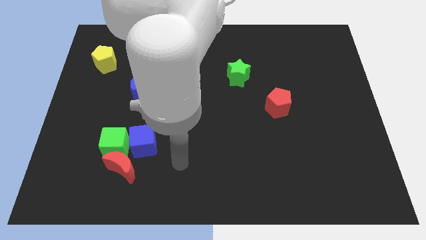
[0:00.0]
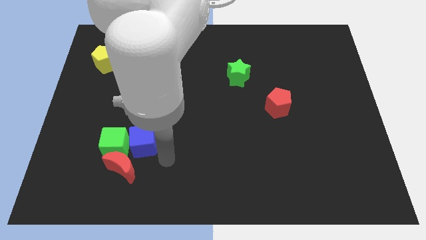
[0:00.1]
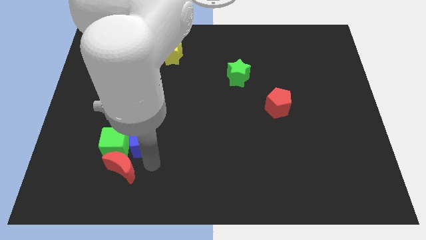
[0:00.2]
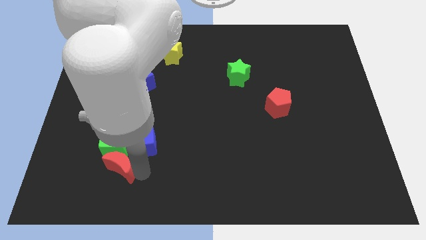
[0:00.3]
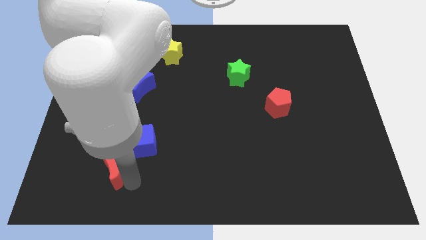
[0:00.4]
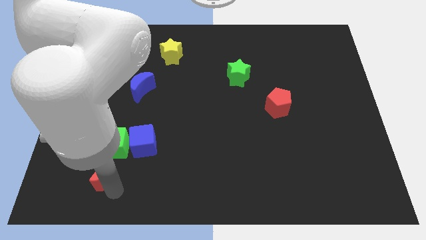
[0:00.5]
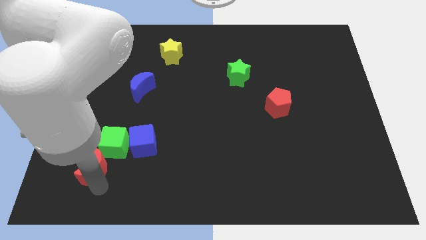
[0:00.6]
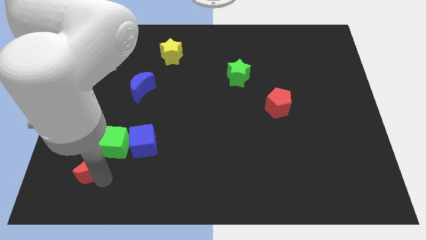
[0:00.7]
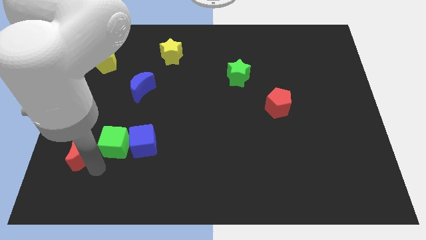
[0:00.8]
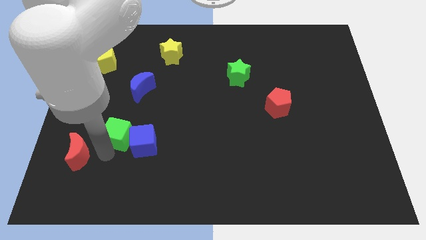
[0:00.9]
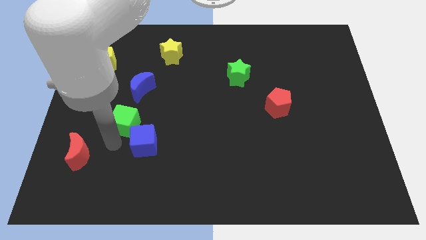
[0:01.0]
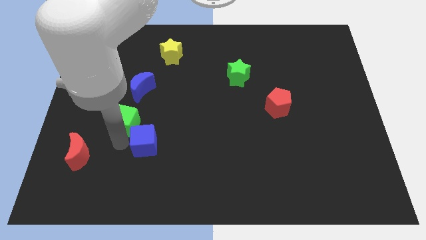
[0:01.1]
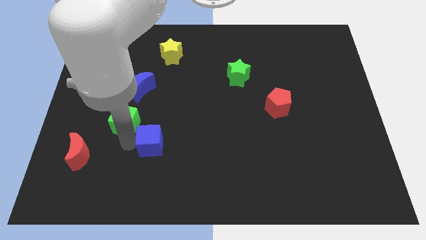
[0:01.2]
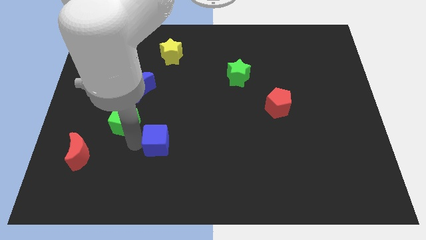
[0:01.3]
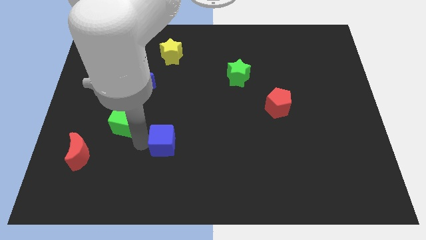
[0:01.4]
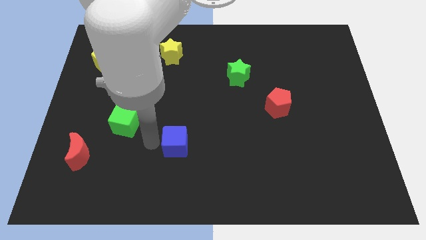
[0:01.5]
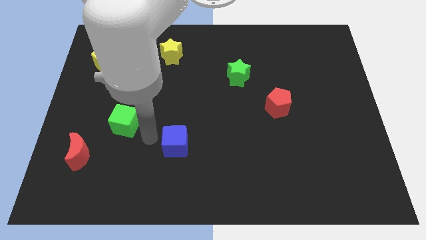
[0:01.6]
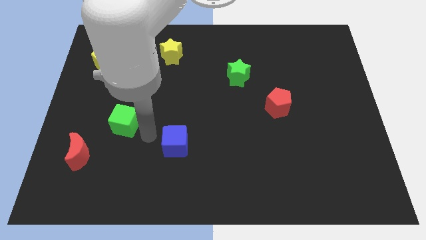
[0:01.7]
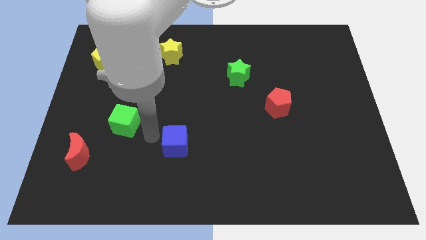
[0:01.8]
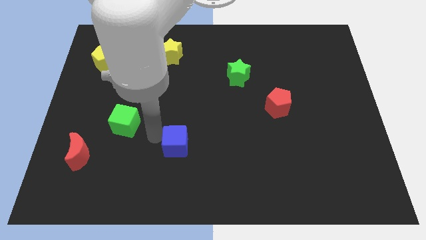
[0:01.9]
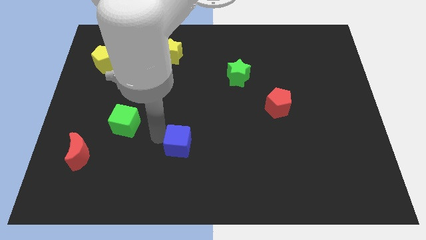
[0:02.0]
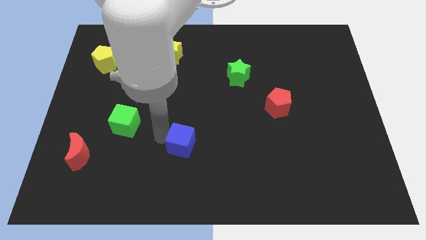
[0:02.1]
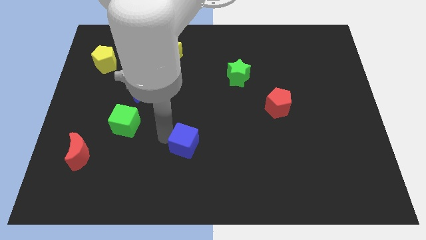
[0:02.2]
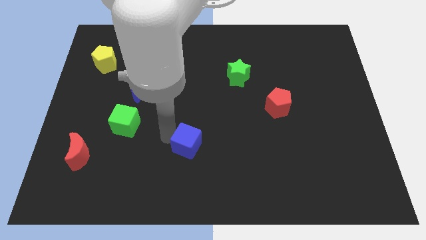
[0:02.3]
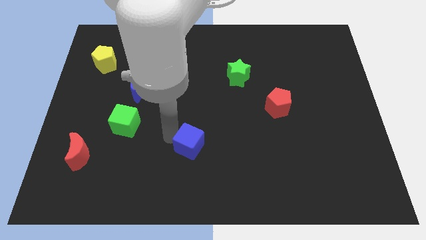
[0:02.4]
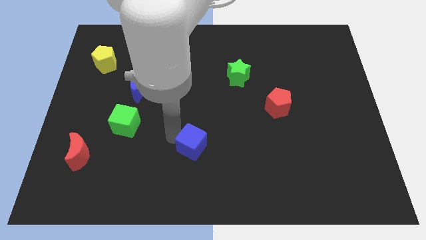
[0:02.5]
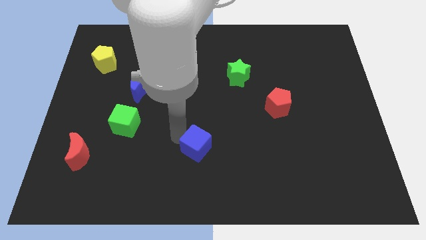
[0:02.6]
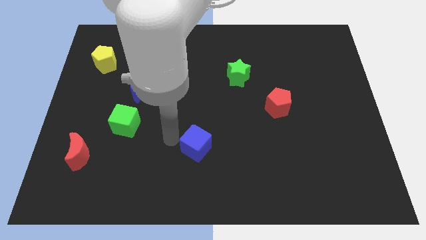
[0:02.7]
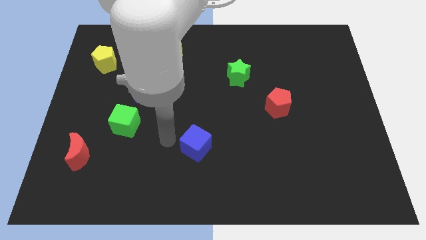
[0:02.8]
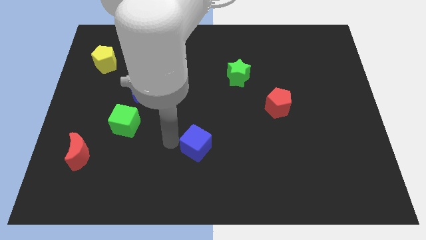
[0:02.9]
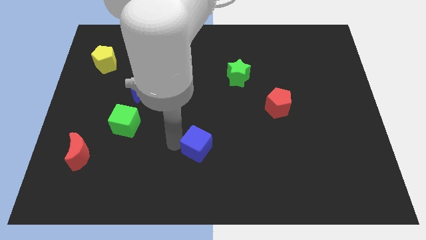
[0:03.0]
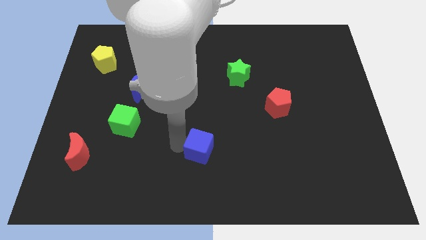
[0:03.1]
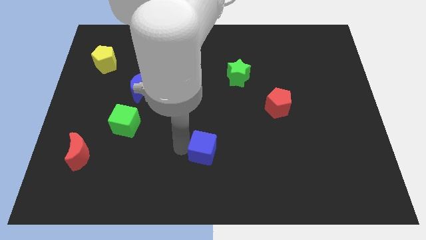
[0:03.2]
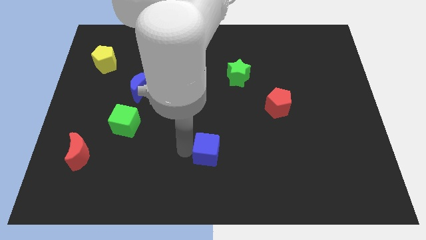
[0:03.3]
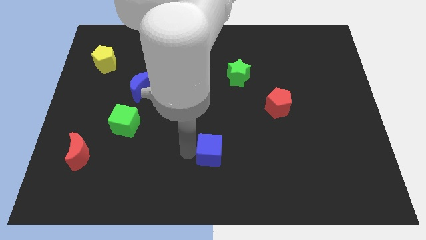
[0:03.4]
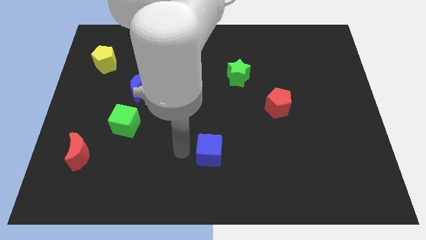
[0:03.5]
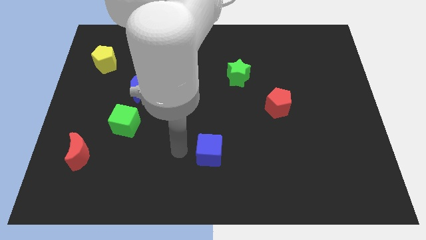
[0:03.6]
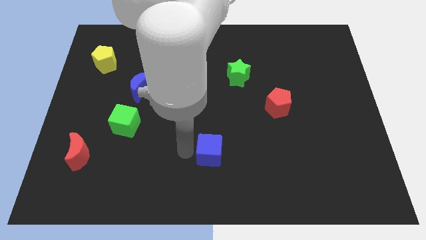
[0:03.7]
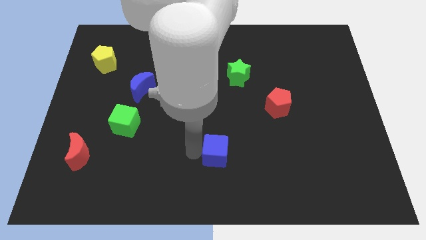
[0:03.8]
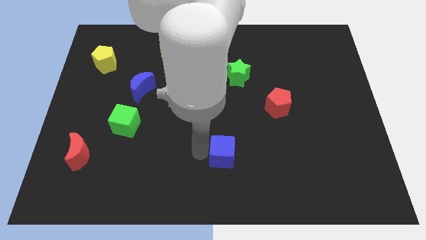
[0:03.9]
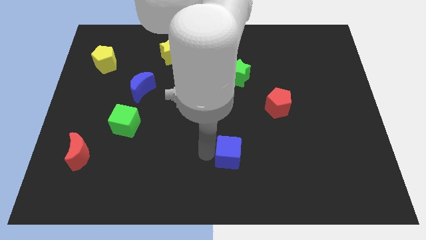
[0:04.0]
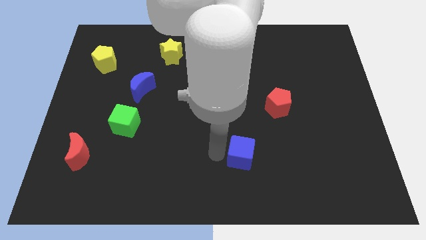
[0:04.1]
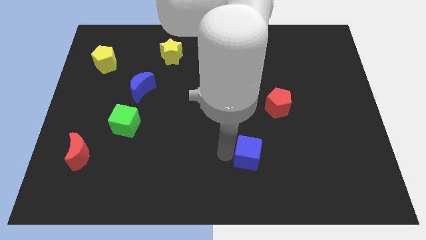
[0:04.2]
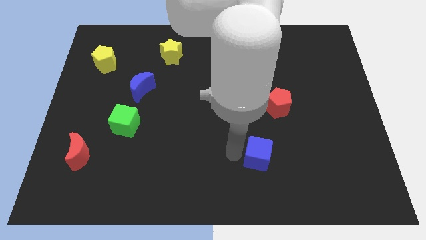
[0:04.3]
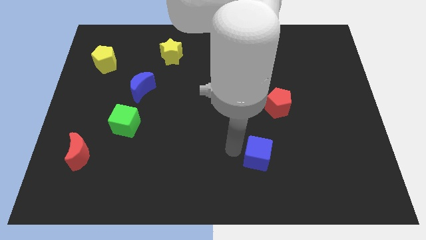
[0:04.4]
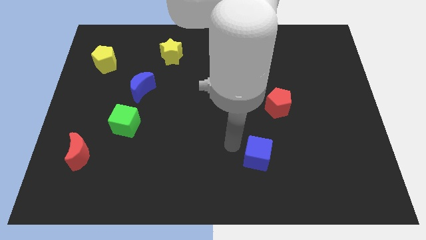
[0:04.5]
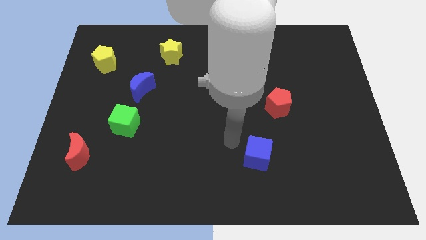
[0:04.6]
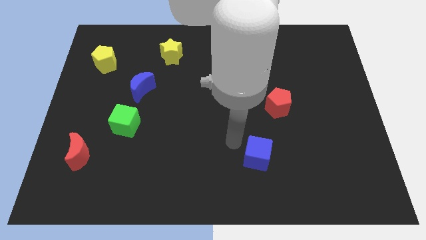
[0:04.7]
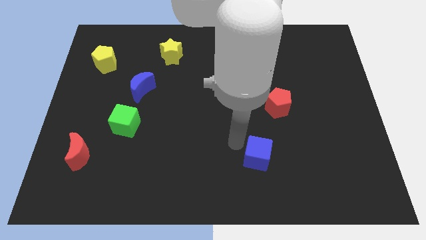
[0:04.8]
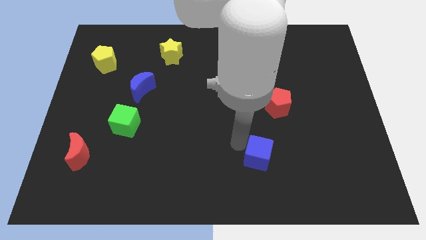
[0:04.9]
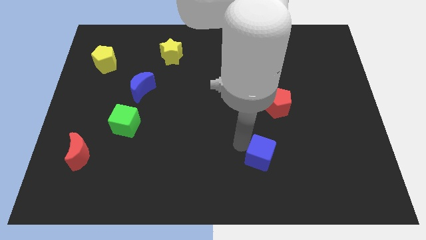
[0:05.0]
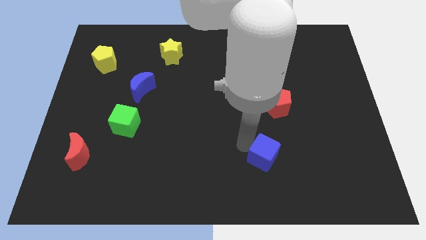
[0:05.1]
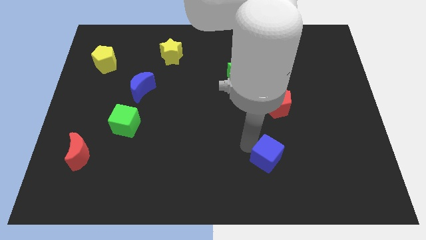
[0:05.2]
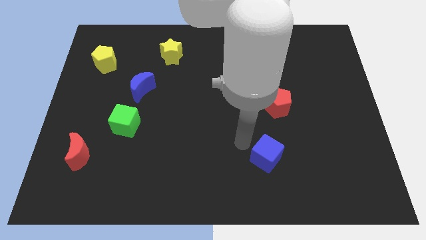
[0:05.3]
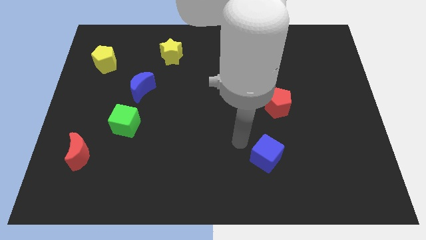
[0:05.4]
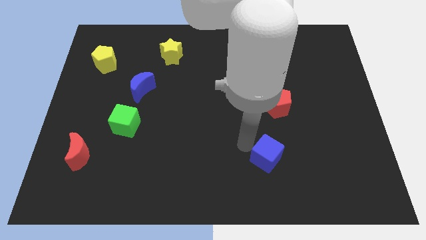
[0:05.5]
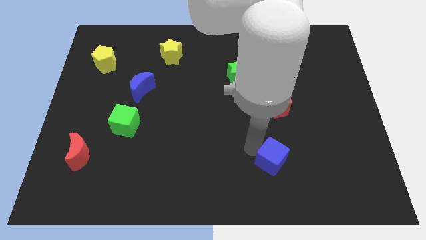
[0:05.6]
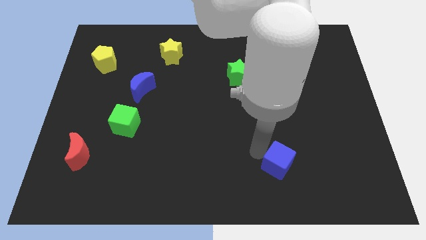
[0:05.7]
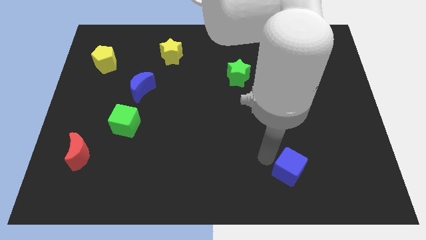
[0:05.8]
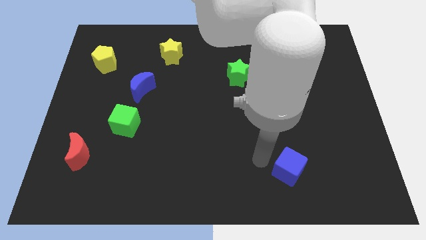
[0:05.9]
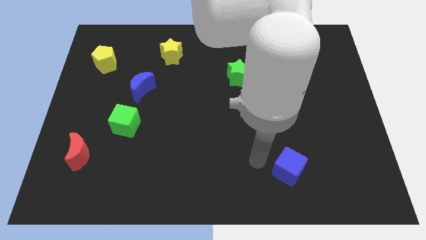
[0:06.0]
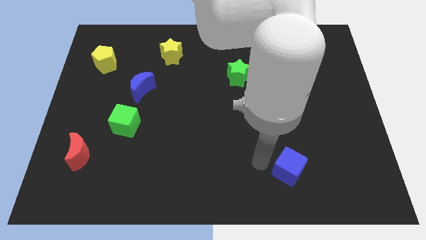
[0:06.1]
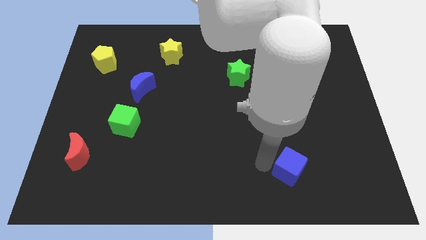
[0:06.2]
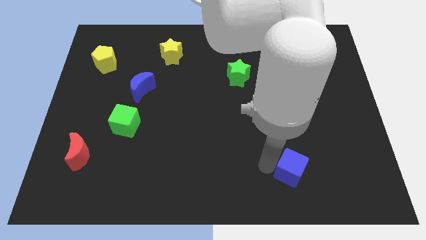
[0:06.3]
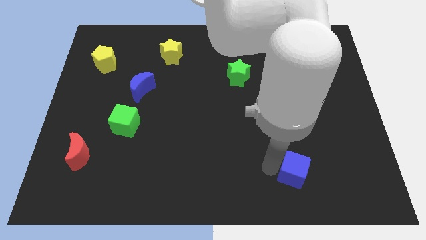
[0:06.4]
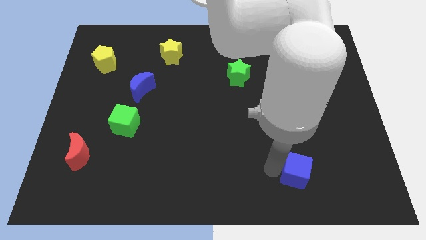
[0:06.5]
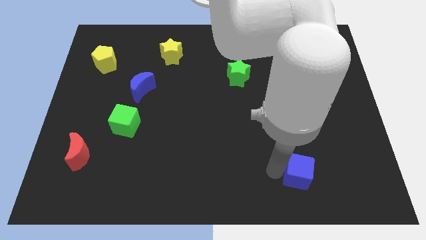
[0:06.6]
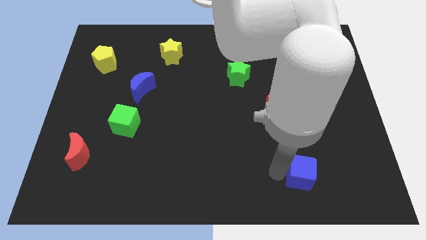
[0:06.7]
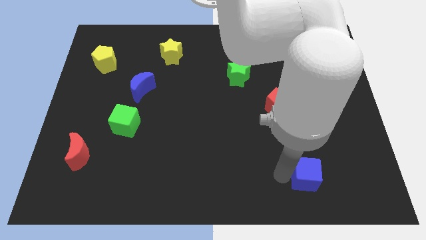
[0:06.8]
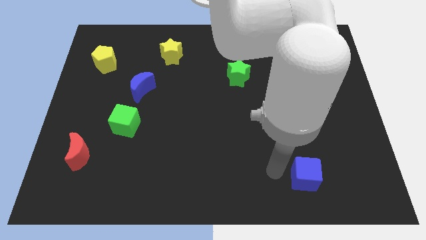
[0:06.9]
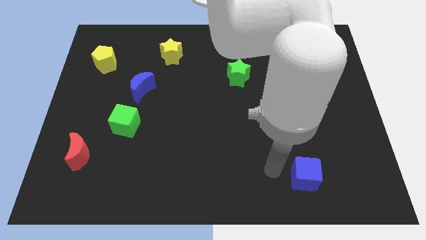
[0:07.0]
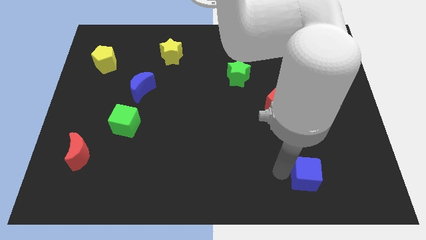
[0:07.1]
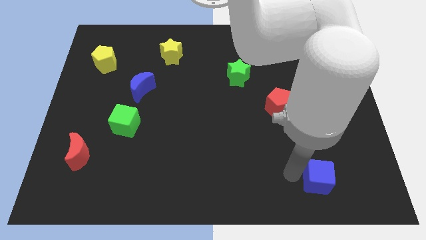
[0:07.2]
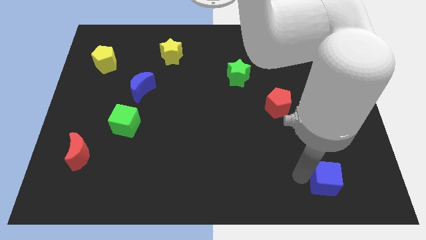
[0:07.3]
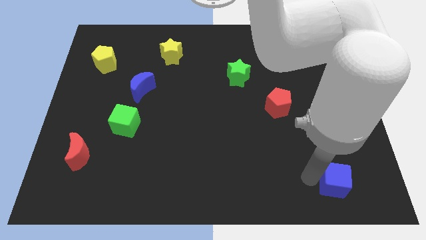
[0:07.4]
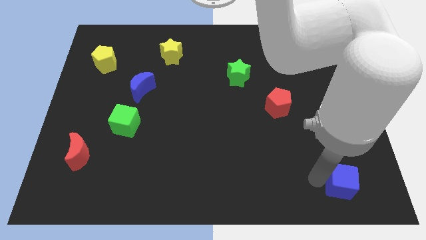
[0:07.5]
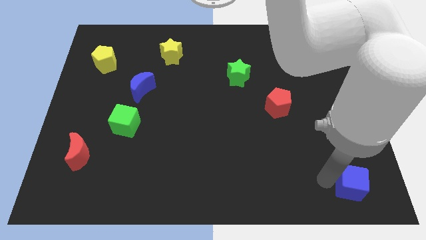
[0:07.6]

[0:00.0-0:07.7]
slide the blue cube to the bottom right
